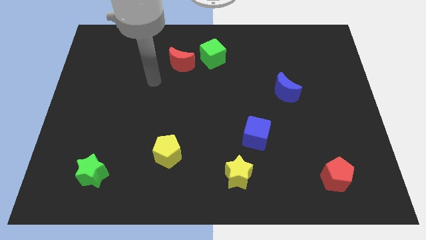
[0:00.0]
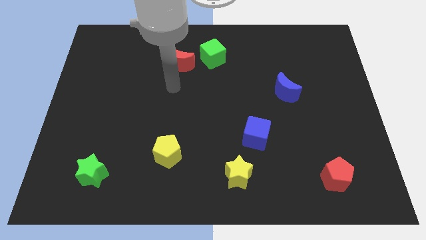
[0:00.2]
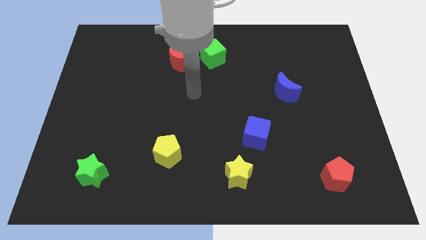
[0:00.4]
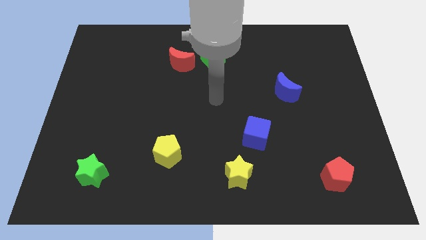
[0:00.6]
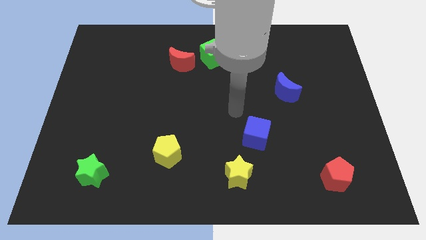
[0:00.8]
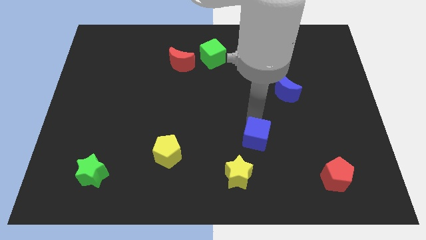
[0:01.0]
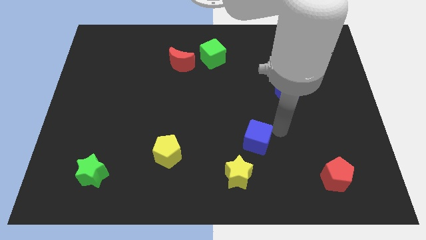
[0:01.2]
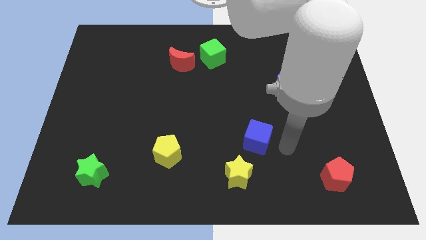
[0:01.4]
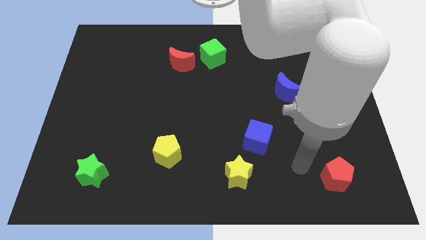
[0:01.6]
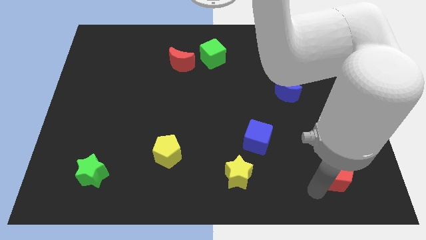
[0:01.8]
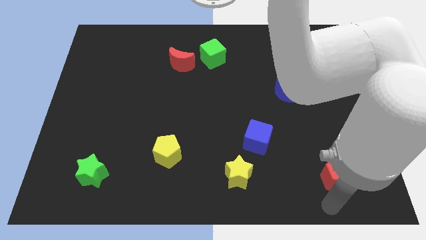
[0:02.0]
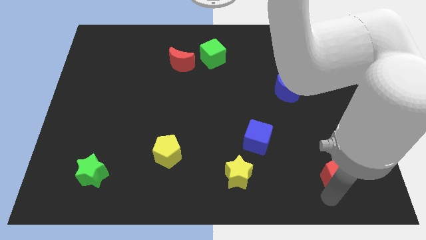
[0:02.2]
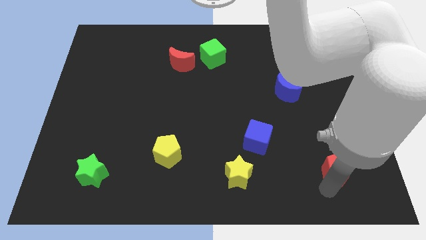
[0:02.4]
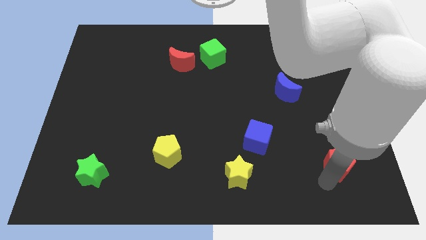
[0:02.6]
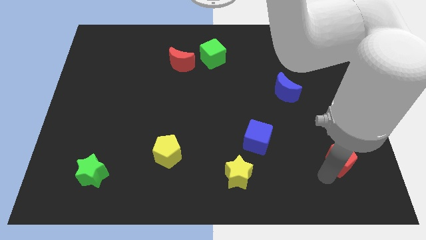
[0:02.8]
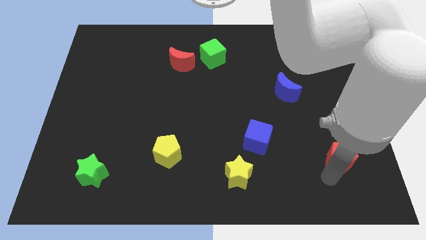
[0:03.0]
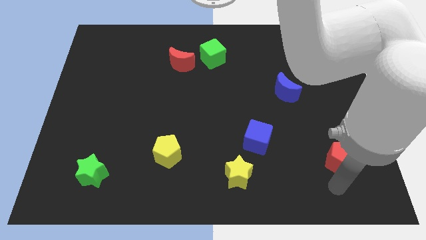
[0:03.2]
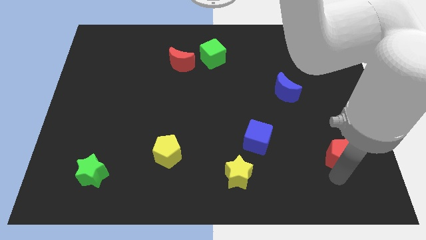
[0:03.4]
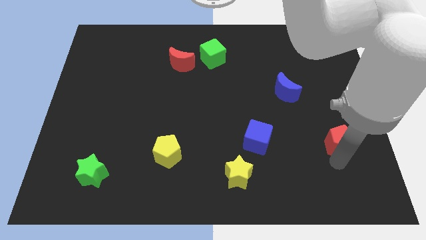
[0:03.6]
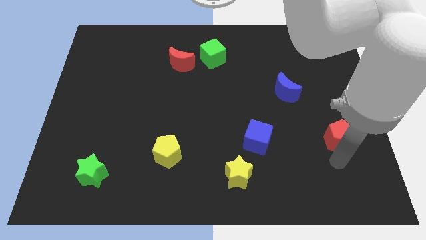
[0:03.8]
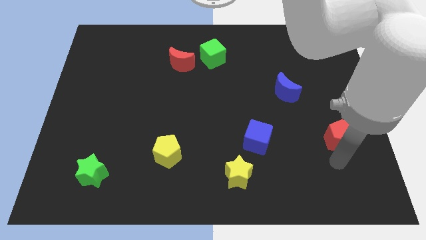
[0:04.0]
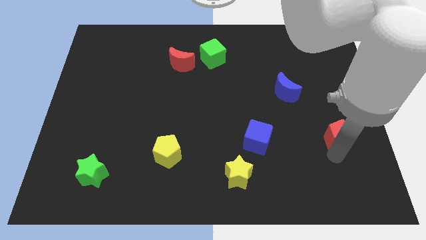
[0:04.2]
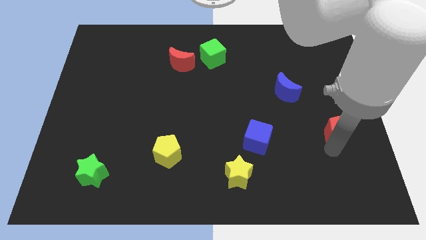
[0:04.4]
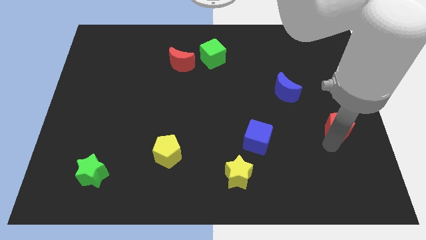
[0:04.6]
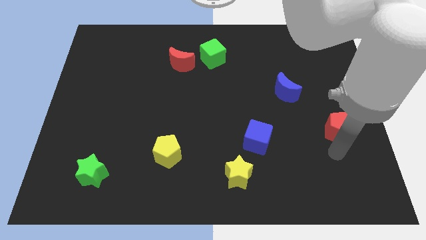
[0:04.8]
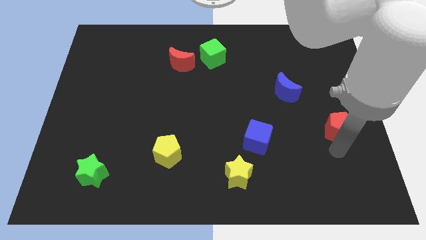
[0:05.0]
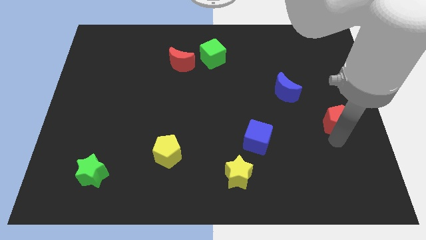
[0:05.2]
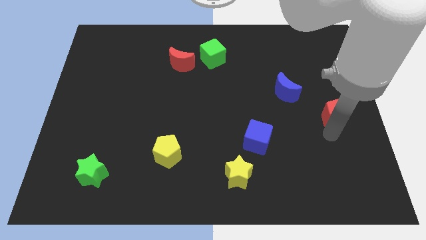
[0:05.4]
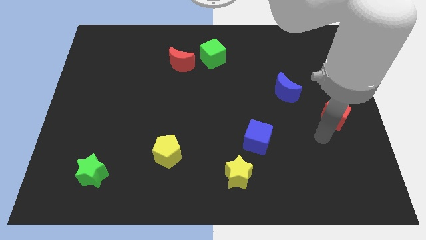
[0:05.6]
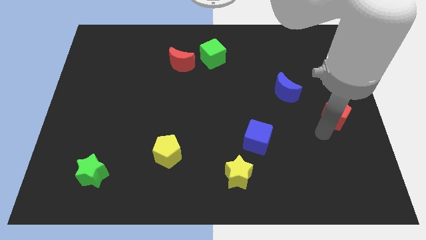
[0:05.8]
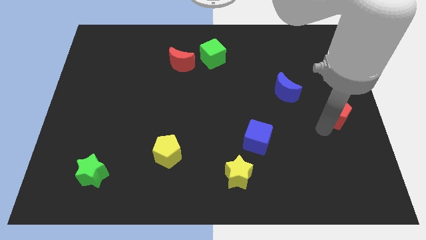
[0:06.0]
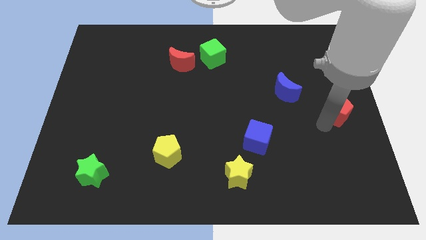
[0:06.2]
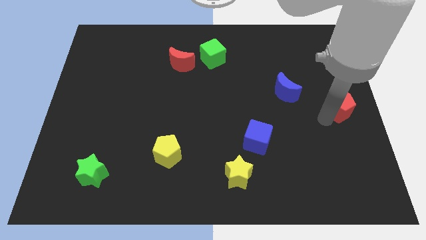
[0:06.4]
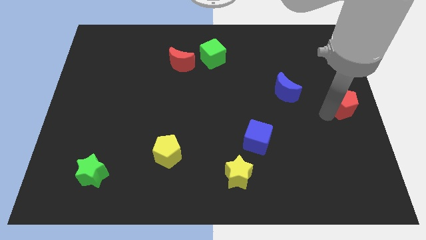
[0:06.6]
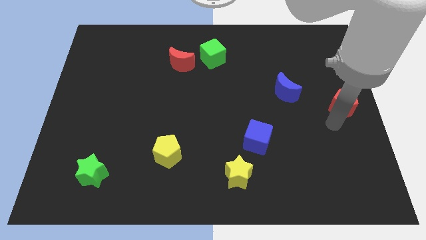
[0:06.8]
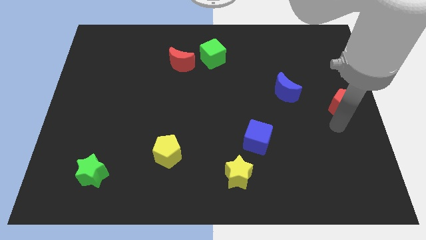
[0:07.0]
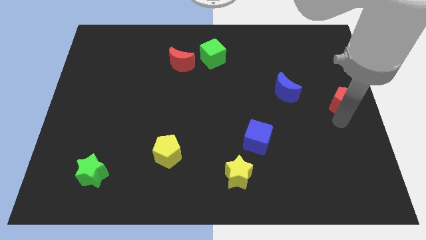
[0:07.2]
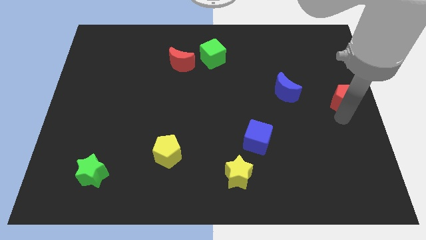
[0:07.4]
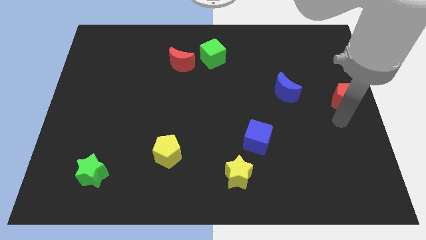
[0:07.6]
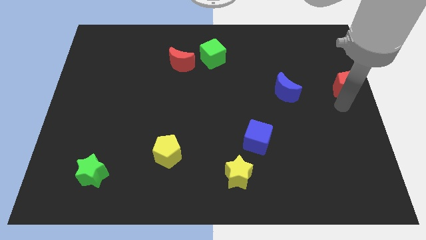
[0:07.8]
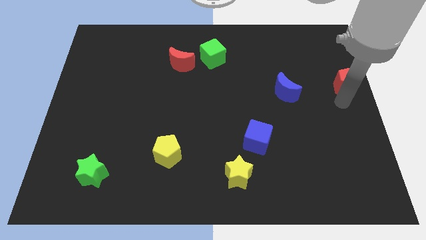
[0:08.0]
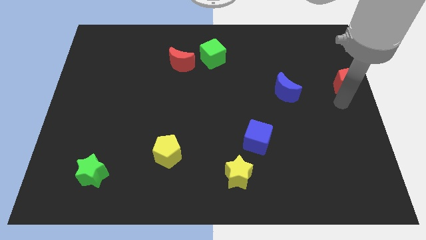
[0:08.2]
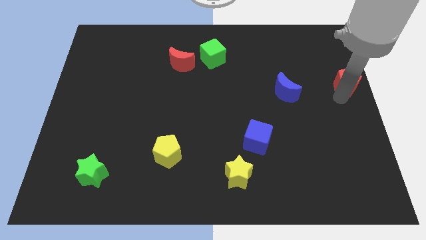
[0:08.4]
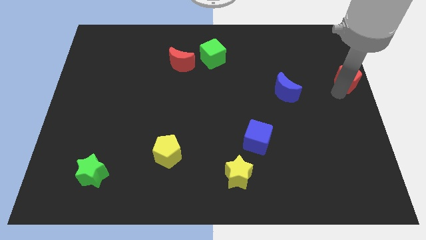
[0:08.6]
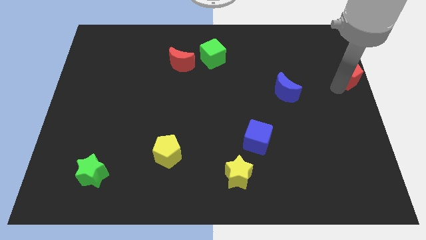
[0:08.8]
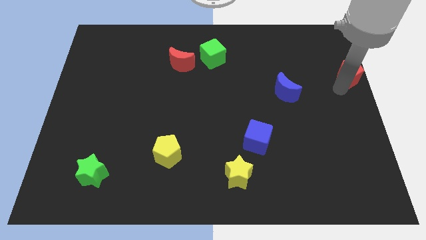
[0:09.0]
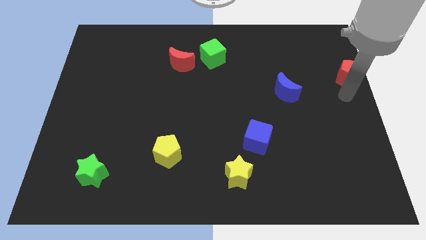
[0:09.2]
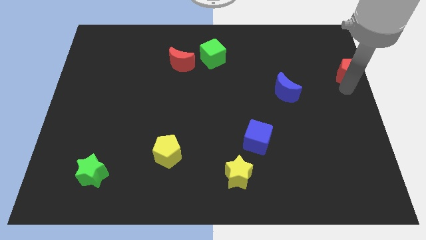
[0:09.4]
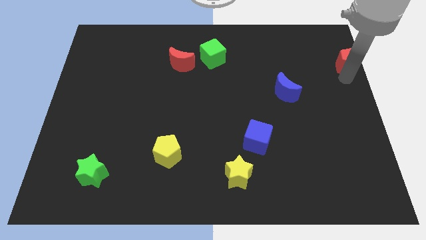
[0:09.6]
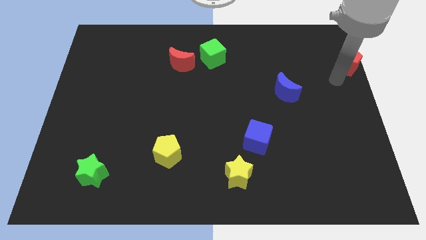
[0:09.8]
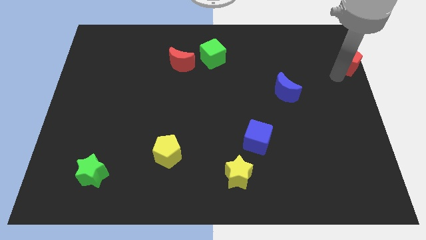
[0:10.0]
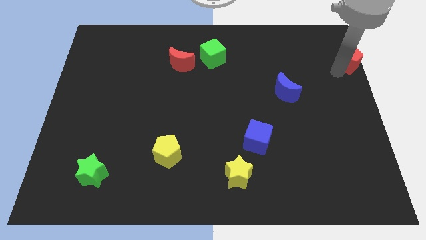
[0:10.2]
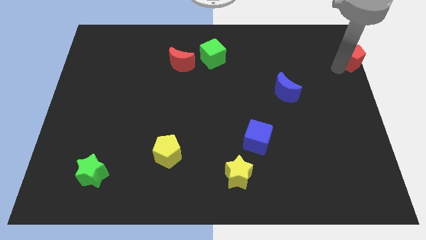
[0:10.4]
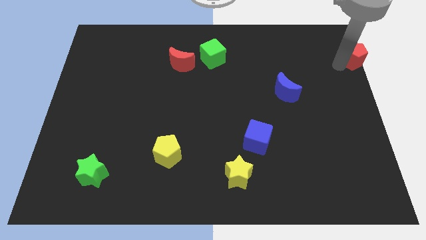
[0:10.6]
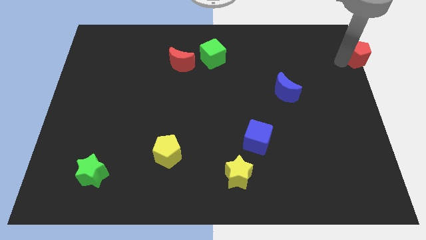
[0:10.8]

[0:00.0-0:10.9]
put the red pentagon to the top right of the board

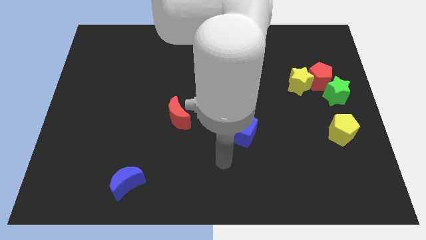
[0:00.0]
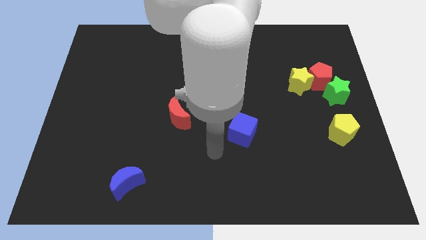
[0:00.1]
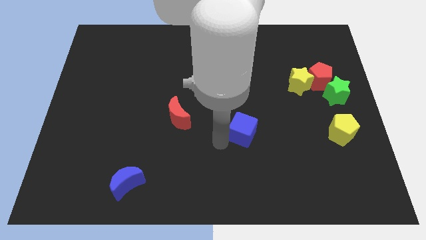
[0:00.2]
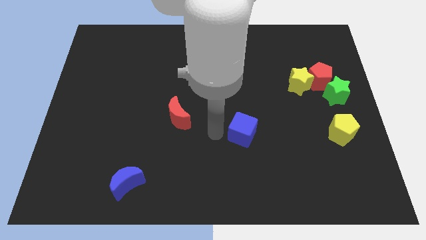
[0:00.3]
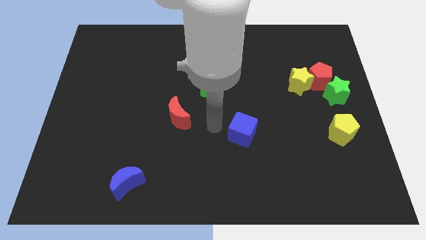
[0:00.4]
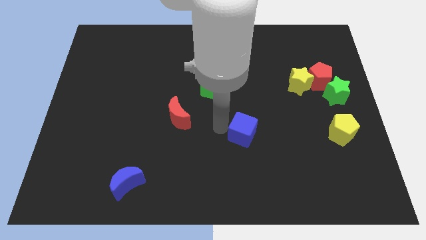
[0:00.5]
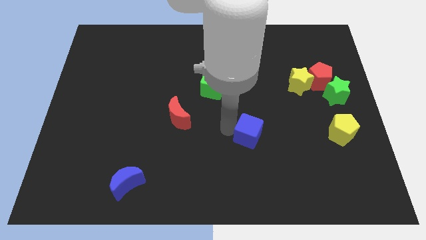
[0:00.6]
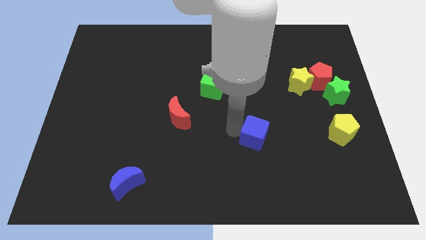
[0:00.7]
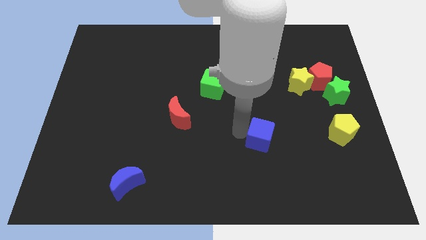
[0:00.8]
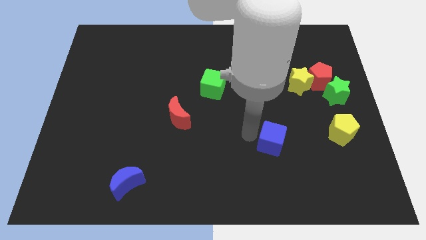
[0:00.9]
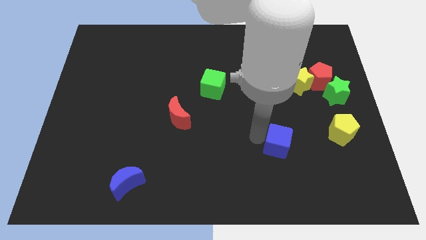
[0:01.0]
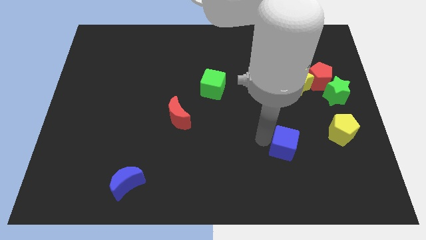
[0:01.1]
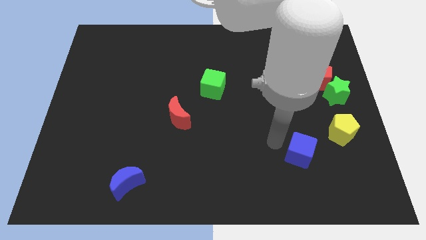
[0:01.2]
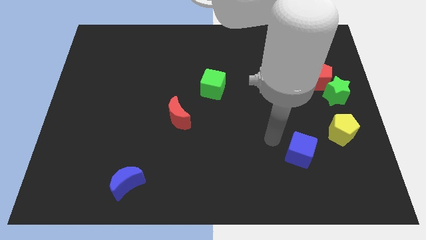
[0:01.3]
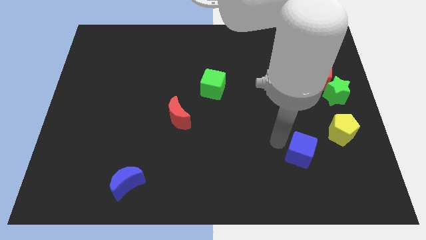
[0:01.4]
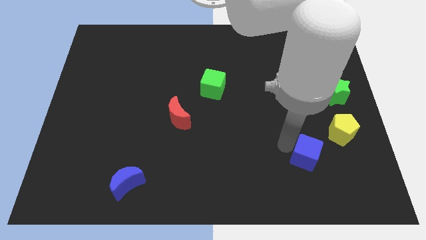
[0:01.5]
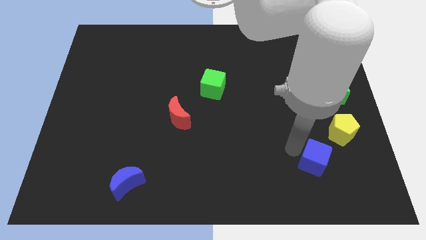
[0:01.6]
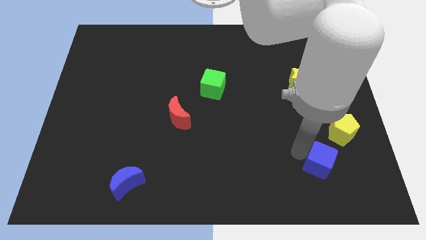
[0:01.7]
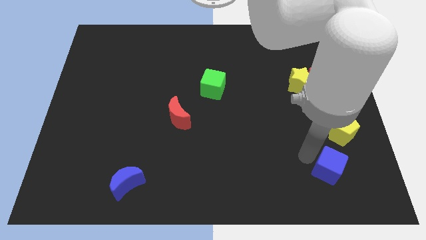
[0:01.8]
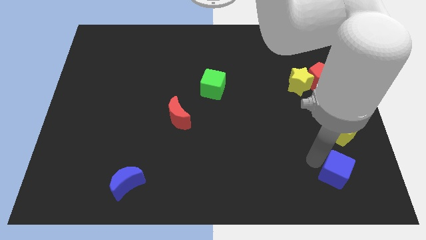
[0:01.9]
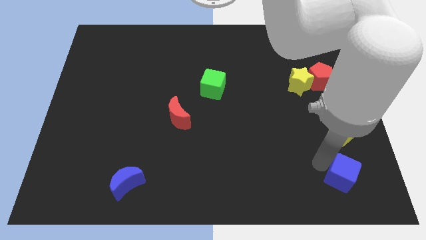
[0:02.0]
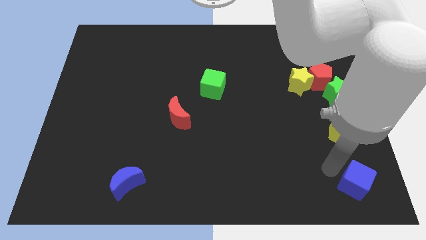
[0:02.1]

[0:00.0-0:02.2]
move the blue cube to the bottom right
